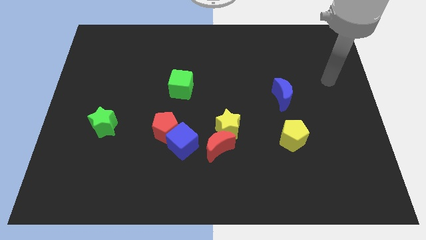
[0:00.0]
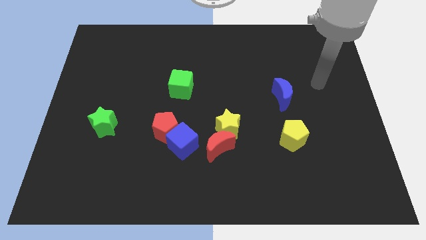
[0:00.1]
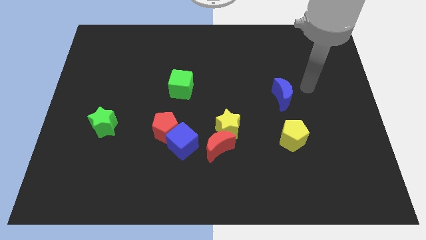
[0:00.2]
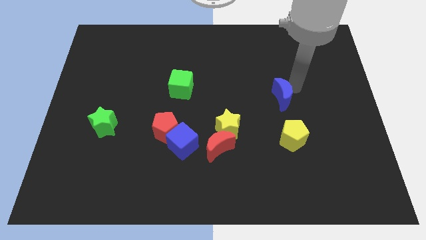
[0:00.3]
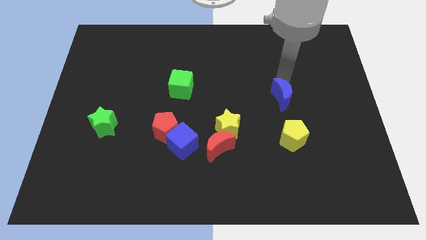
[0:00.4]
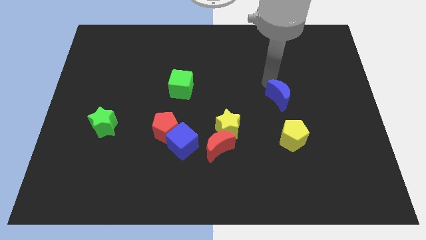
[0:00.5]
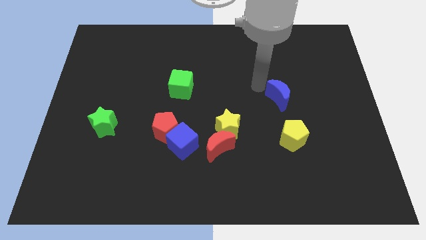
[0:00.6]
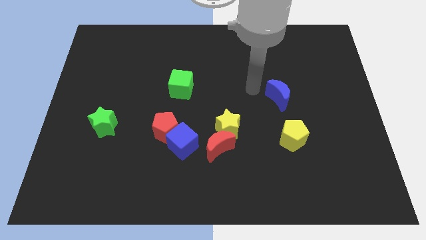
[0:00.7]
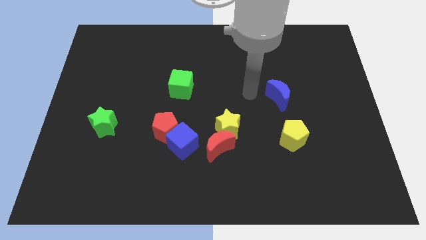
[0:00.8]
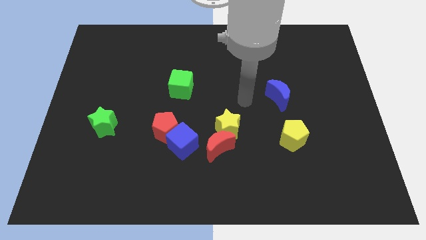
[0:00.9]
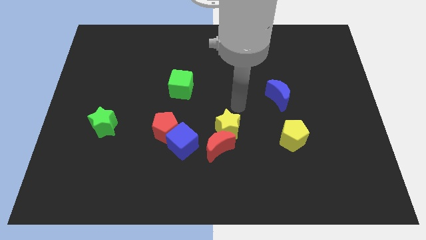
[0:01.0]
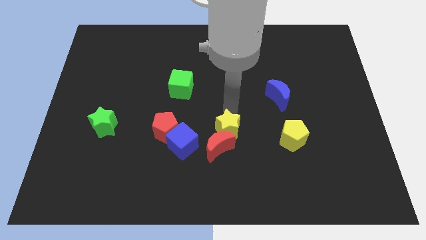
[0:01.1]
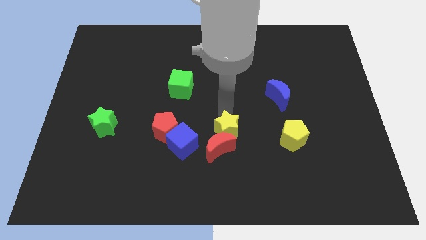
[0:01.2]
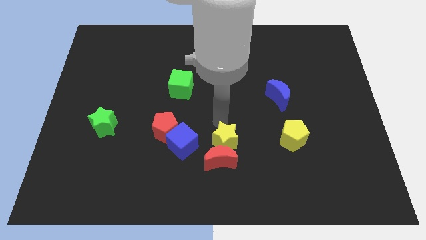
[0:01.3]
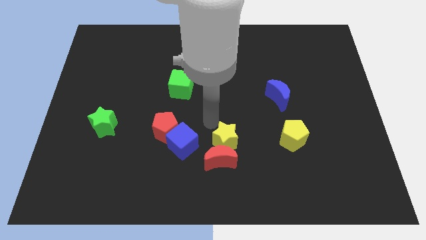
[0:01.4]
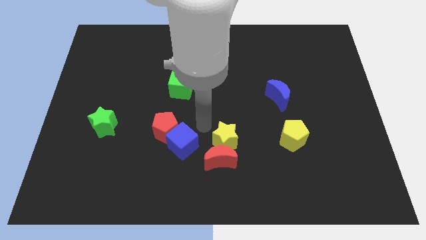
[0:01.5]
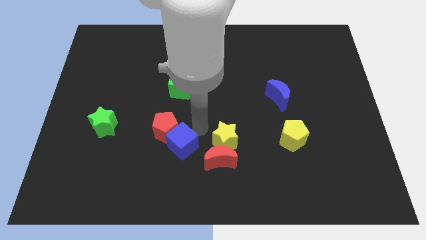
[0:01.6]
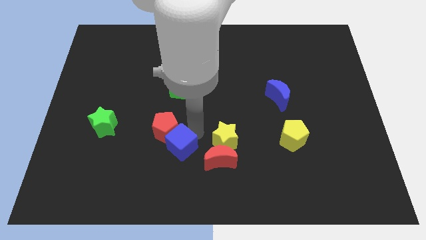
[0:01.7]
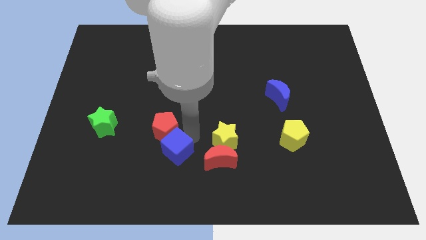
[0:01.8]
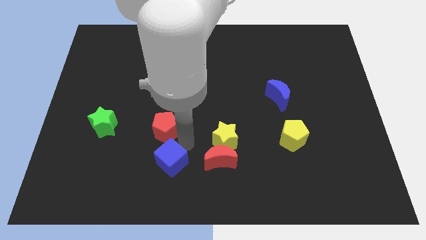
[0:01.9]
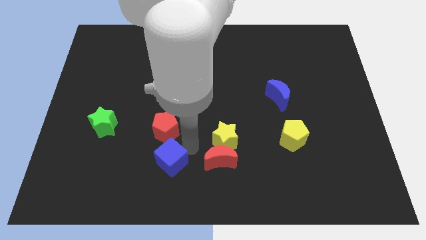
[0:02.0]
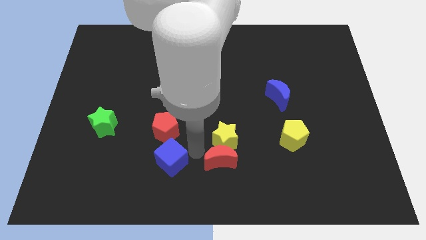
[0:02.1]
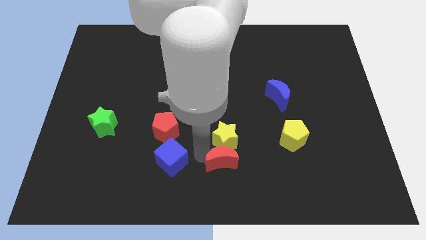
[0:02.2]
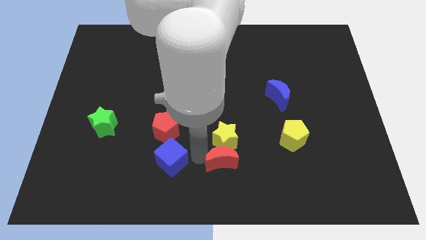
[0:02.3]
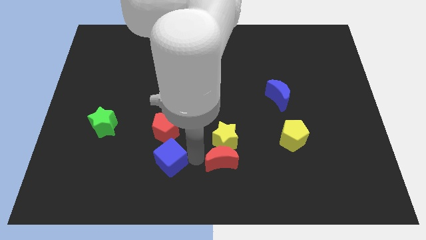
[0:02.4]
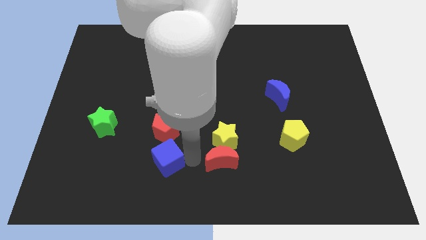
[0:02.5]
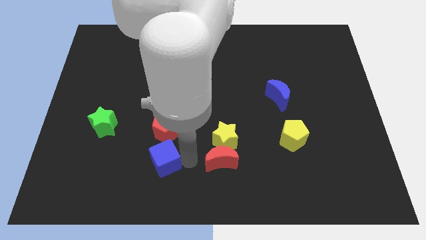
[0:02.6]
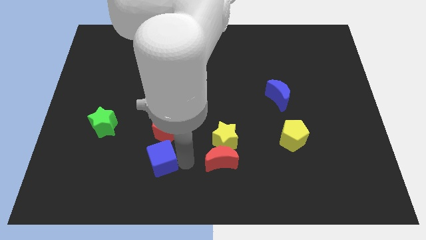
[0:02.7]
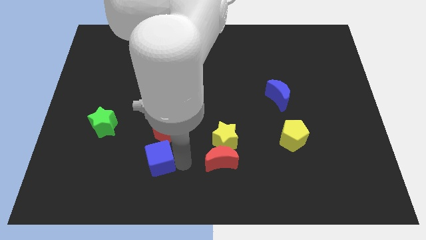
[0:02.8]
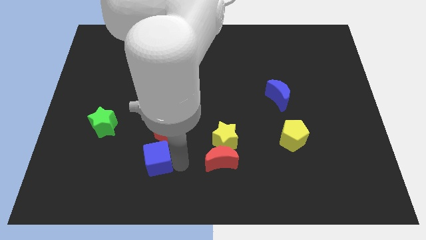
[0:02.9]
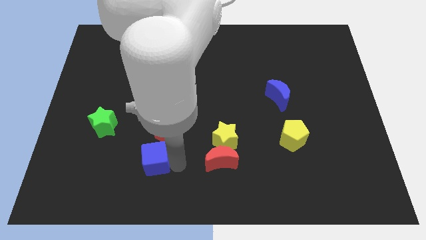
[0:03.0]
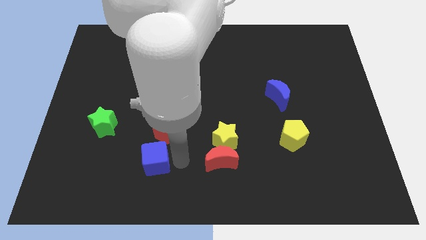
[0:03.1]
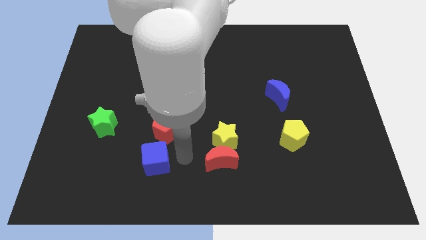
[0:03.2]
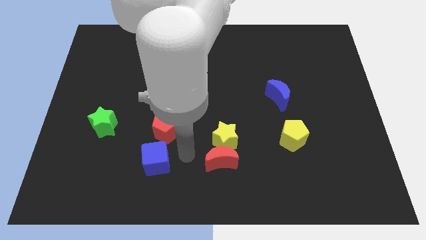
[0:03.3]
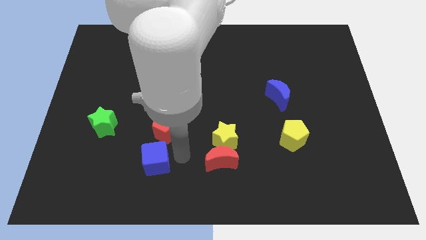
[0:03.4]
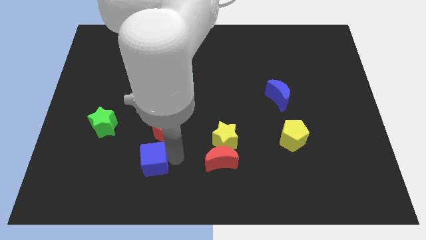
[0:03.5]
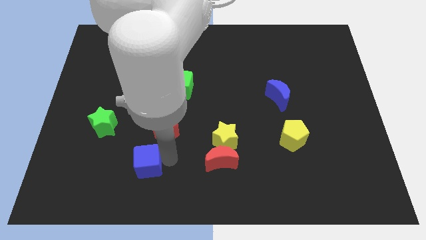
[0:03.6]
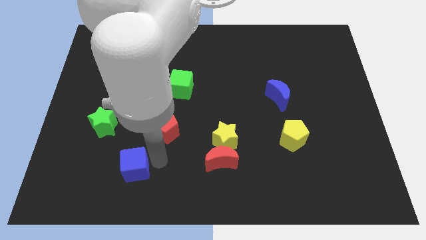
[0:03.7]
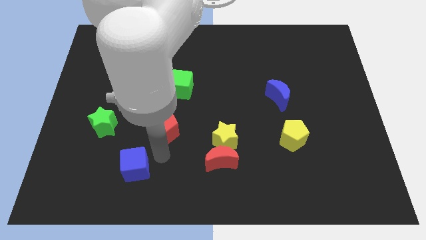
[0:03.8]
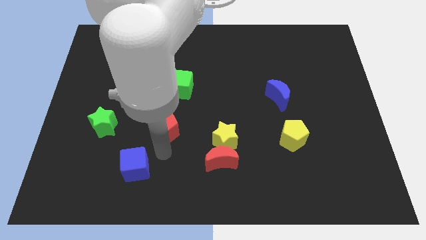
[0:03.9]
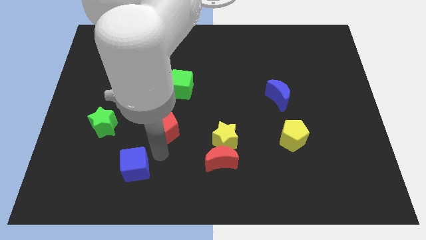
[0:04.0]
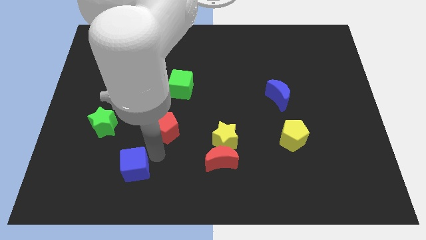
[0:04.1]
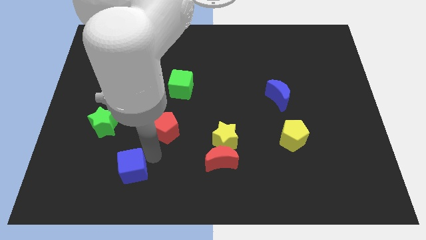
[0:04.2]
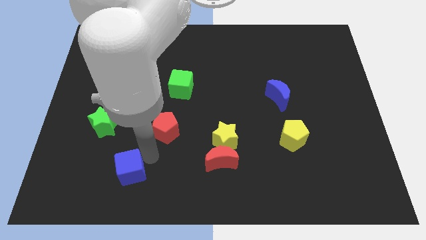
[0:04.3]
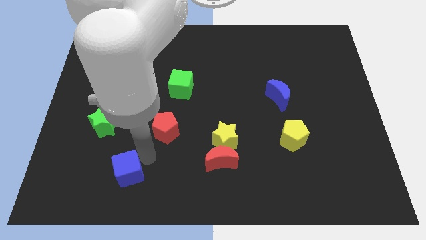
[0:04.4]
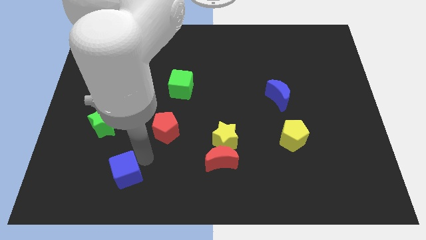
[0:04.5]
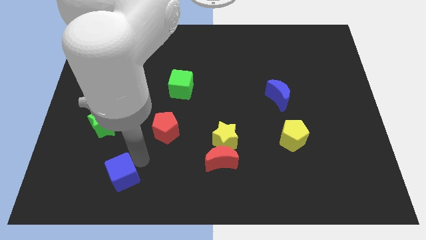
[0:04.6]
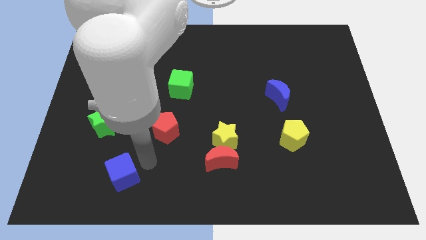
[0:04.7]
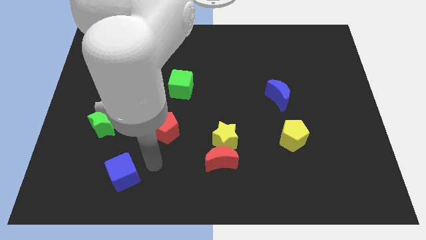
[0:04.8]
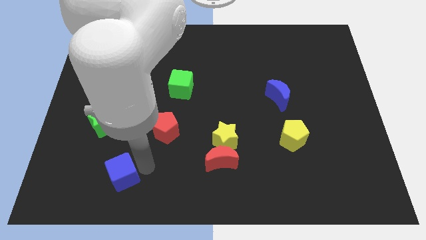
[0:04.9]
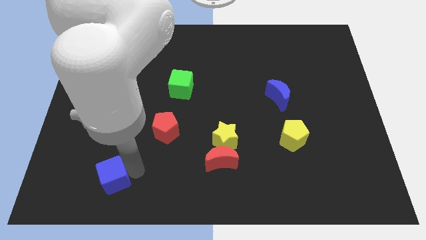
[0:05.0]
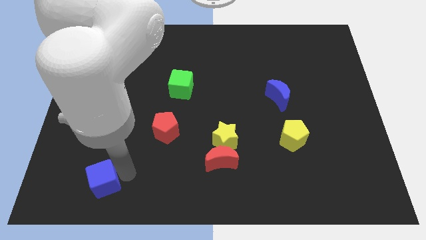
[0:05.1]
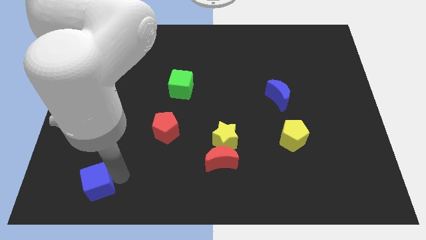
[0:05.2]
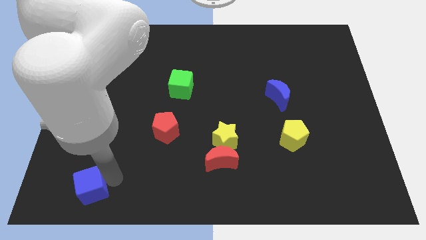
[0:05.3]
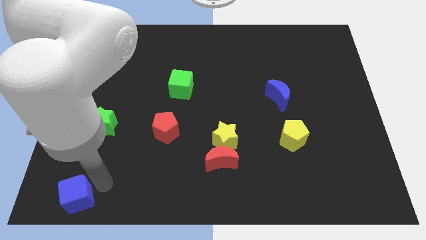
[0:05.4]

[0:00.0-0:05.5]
move the blue cube to the lower left corner

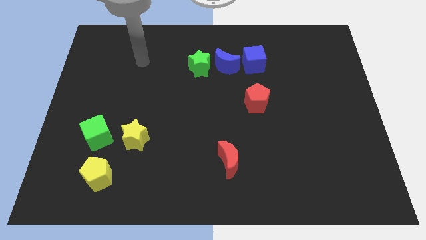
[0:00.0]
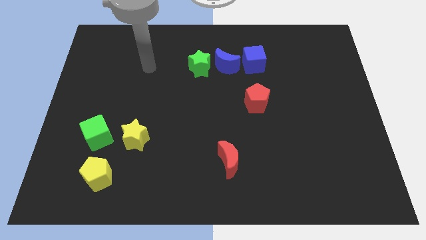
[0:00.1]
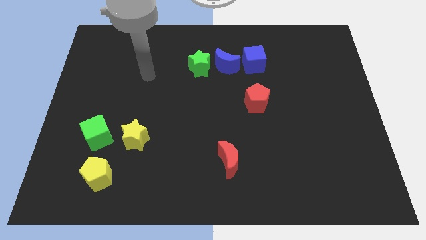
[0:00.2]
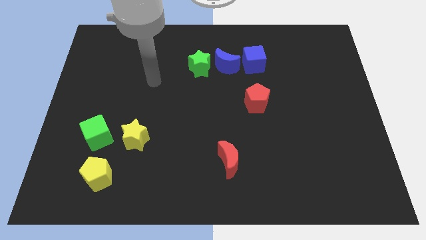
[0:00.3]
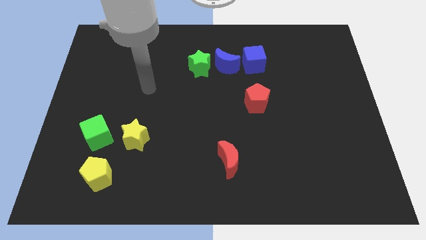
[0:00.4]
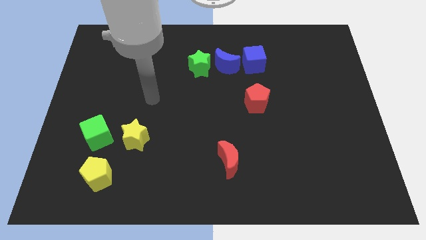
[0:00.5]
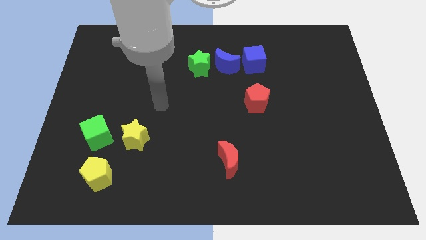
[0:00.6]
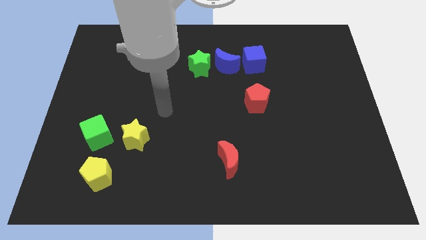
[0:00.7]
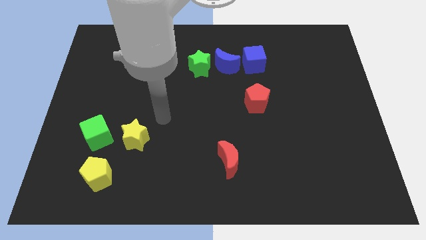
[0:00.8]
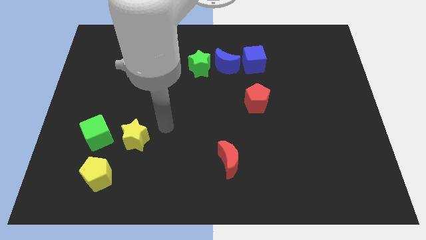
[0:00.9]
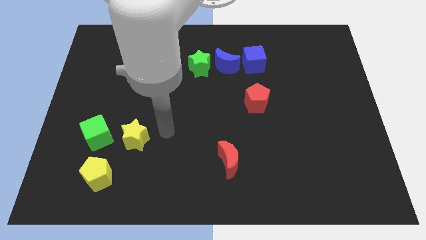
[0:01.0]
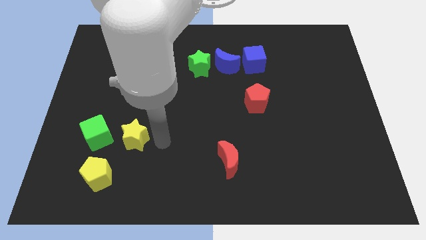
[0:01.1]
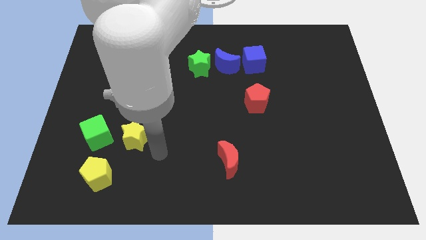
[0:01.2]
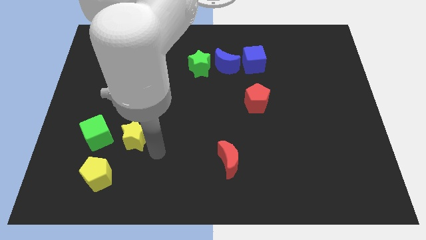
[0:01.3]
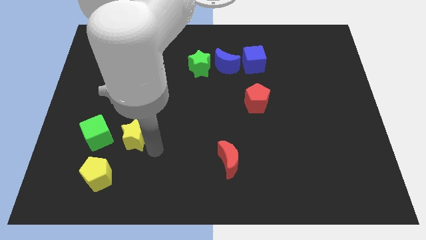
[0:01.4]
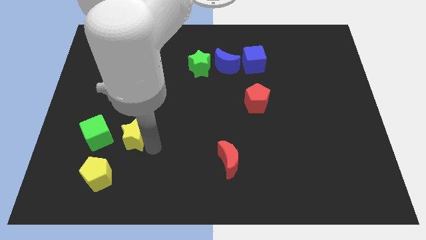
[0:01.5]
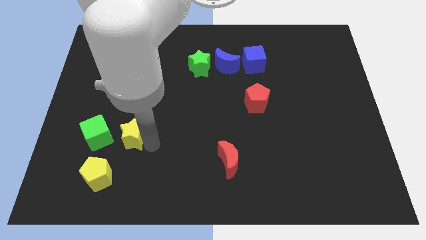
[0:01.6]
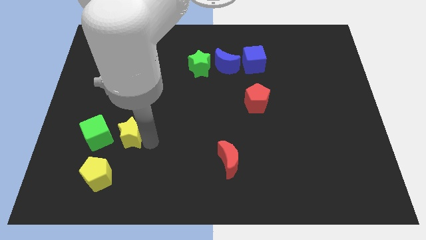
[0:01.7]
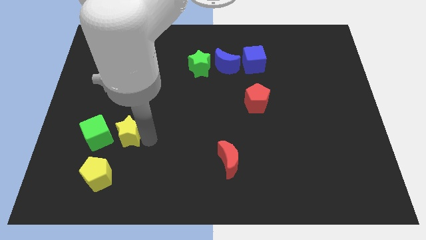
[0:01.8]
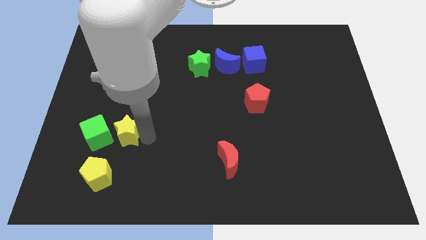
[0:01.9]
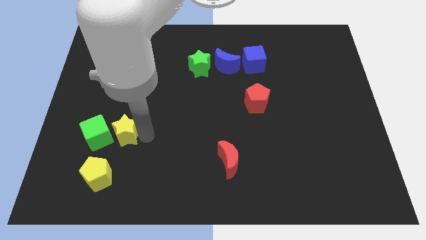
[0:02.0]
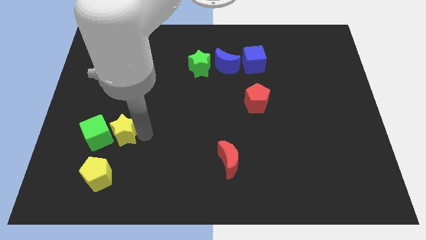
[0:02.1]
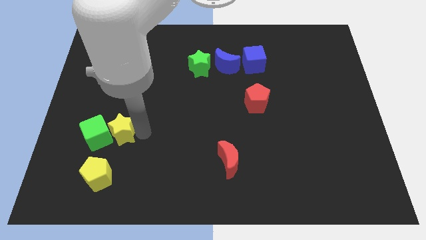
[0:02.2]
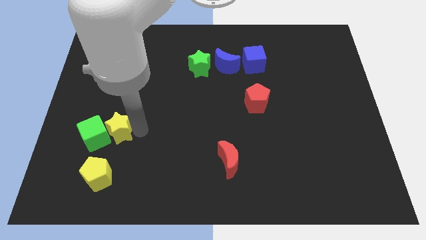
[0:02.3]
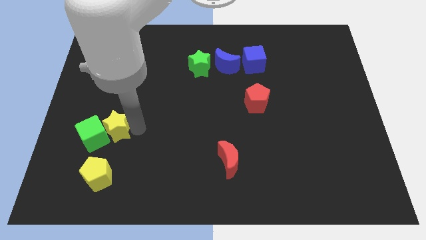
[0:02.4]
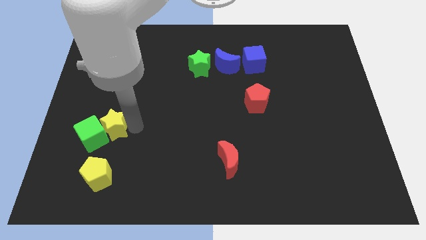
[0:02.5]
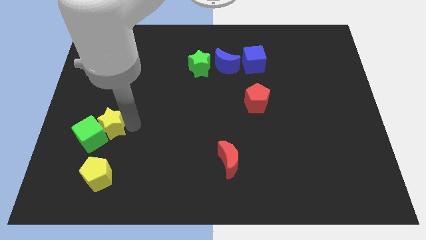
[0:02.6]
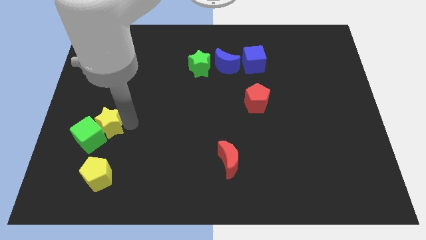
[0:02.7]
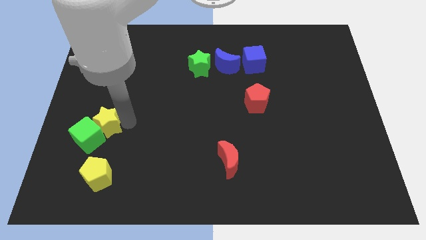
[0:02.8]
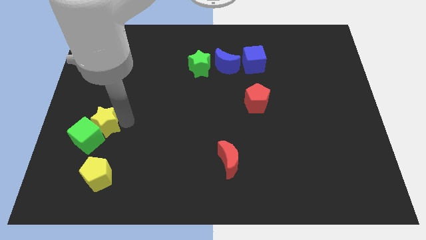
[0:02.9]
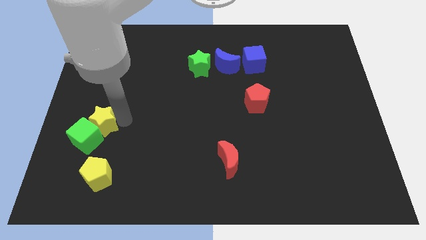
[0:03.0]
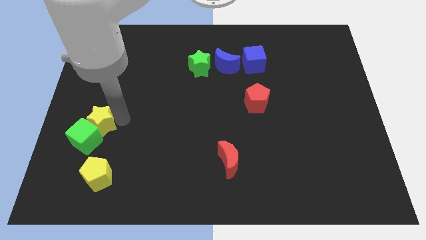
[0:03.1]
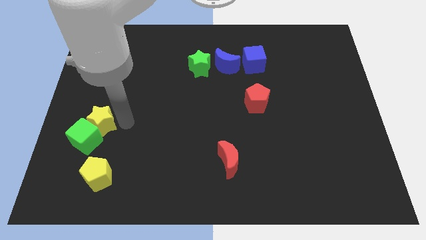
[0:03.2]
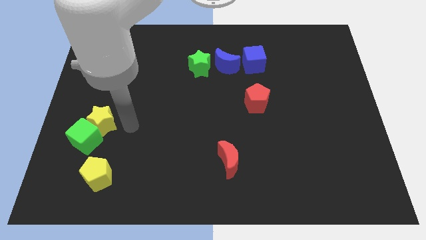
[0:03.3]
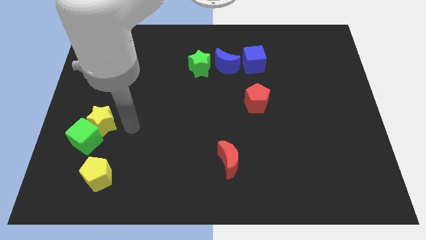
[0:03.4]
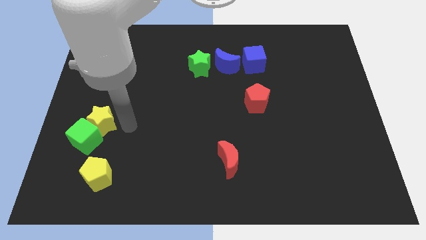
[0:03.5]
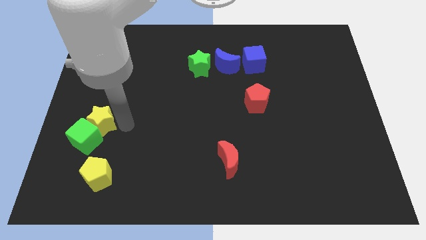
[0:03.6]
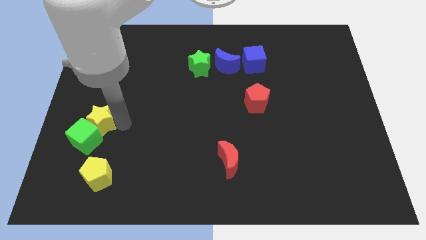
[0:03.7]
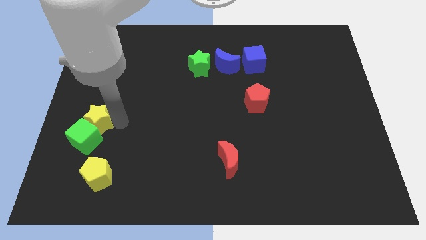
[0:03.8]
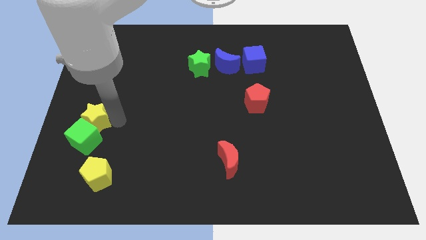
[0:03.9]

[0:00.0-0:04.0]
move the yellow star to the center left
